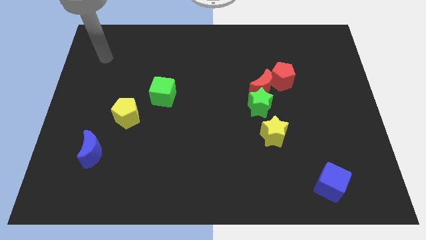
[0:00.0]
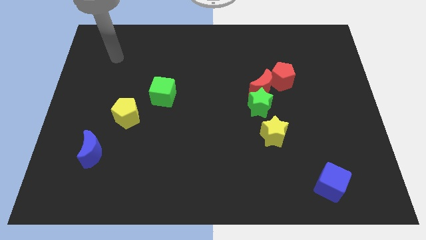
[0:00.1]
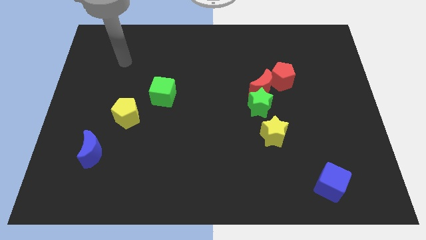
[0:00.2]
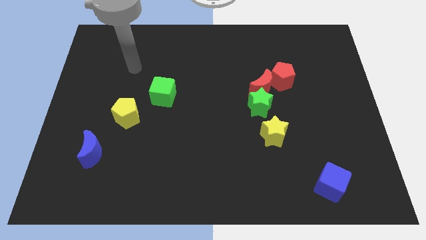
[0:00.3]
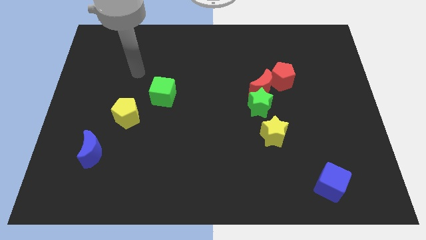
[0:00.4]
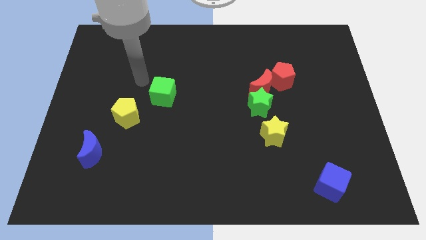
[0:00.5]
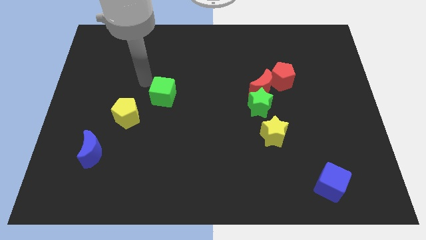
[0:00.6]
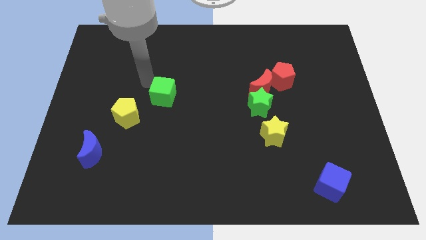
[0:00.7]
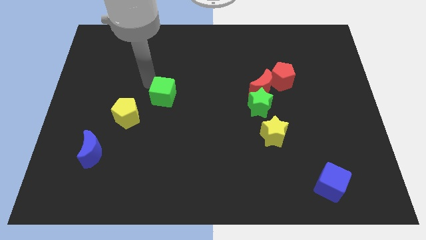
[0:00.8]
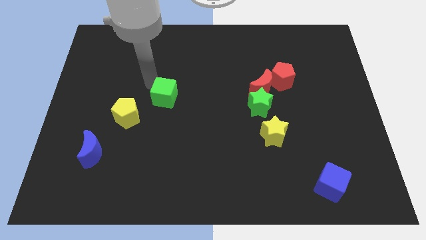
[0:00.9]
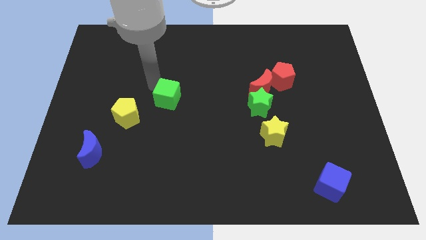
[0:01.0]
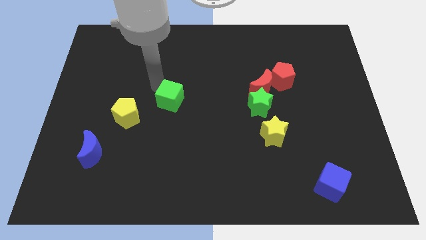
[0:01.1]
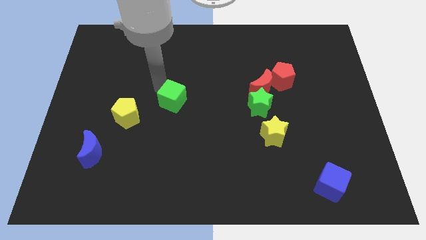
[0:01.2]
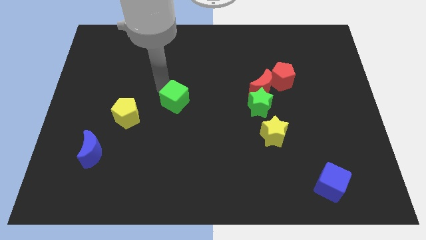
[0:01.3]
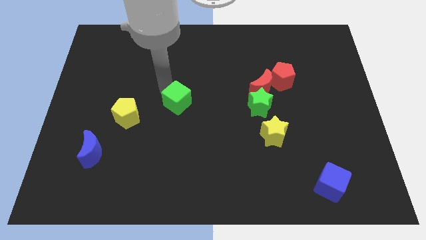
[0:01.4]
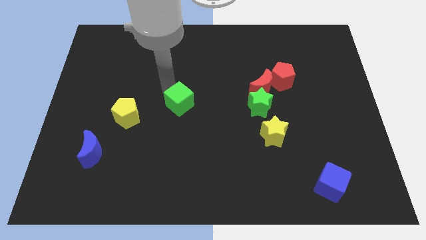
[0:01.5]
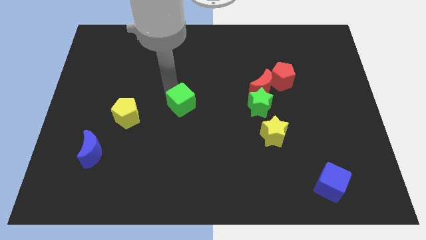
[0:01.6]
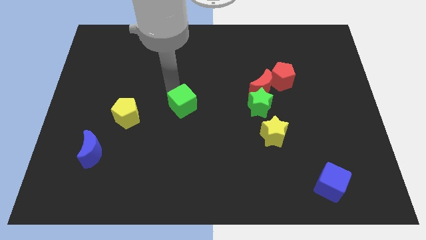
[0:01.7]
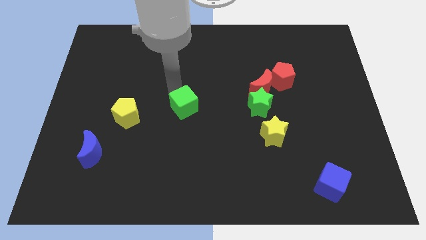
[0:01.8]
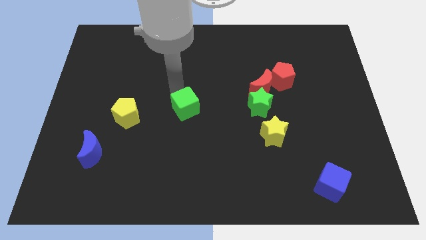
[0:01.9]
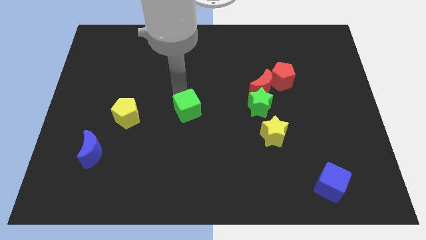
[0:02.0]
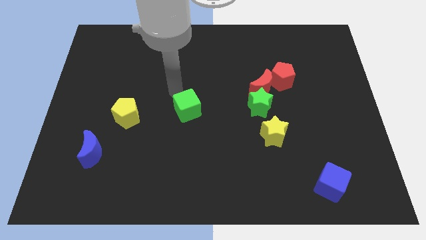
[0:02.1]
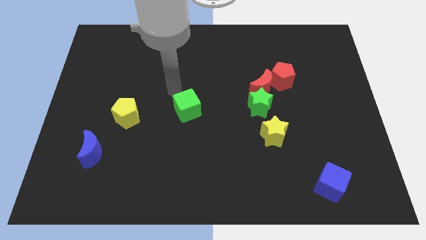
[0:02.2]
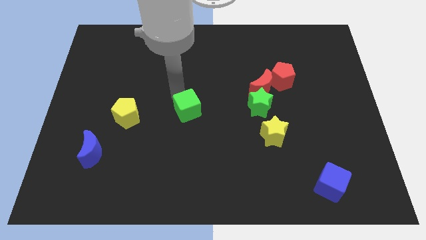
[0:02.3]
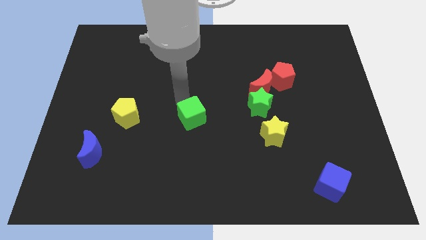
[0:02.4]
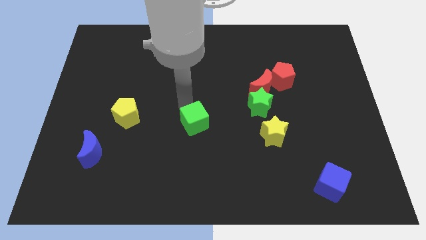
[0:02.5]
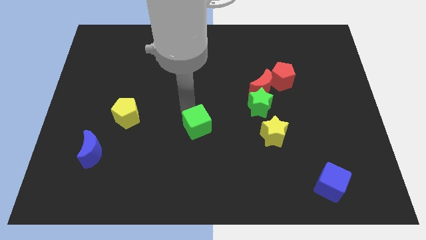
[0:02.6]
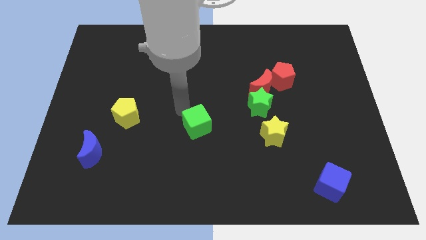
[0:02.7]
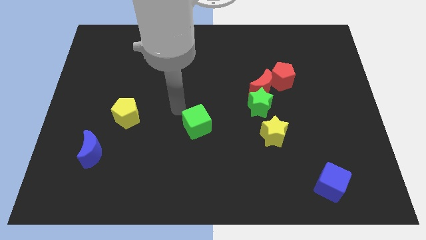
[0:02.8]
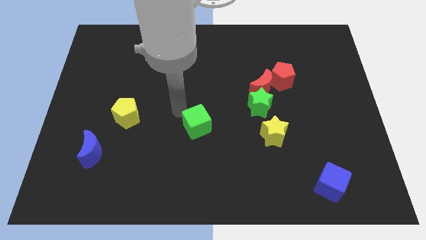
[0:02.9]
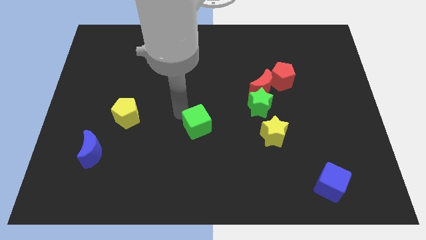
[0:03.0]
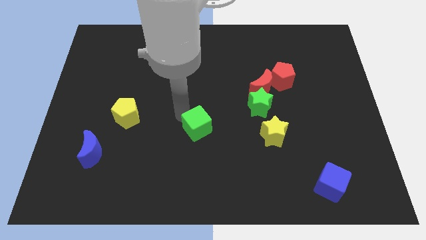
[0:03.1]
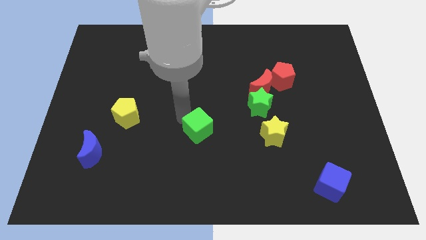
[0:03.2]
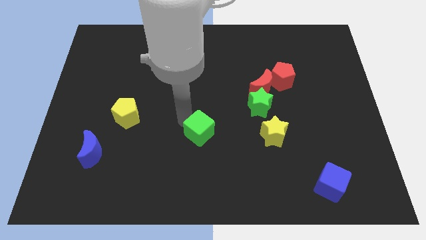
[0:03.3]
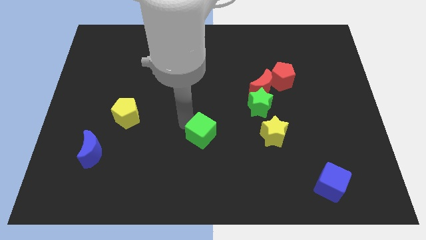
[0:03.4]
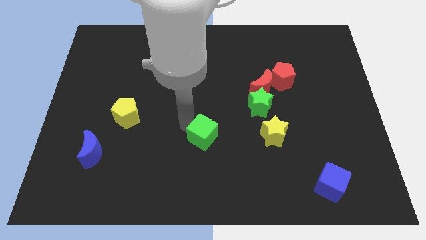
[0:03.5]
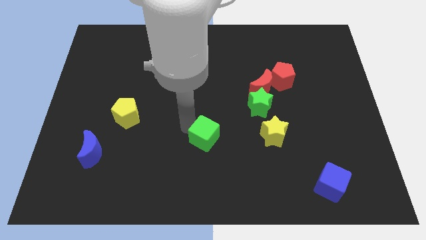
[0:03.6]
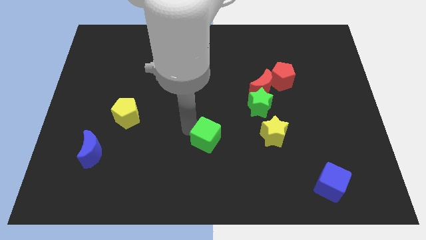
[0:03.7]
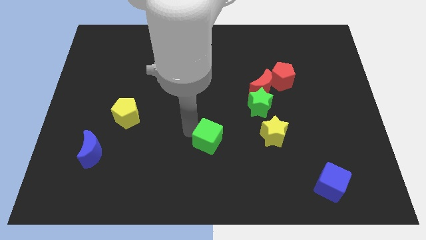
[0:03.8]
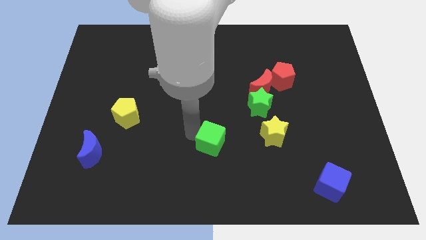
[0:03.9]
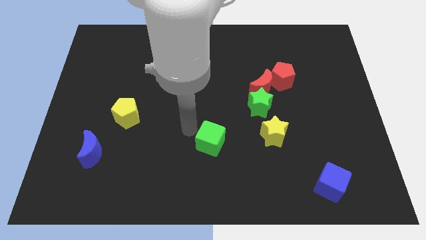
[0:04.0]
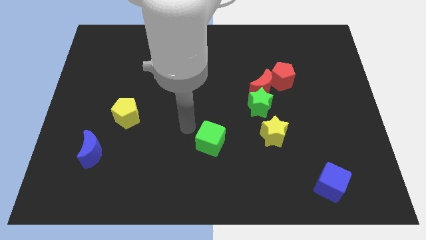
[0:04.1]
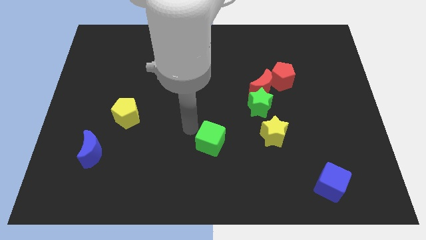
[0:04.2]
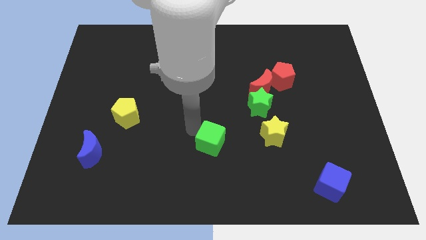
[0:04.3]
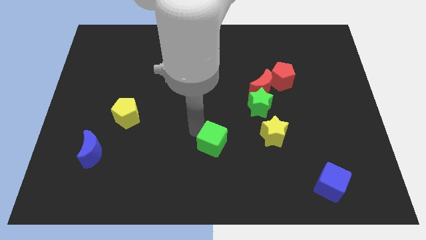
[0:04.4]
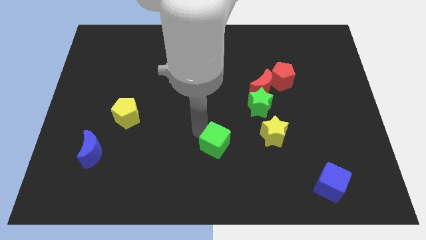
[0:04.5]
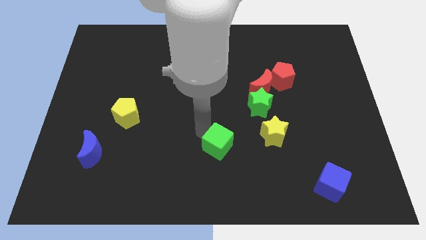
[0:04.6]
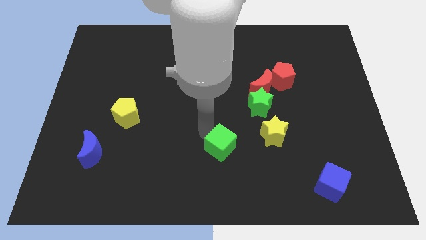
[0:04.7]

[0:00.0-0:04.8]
push the green cube downwards and right

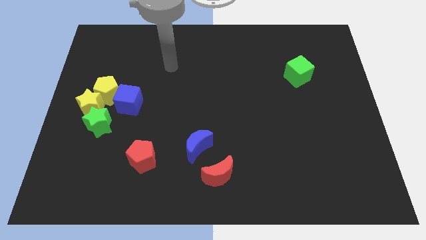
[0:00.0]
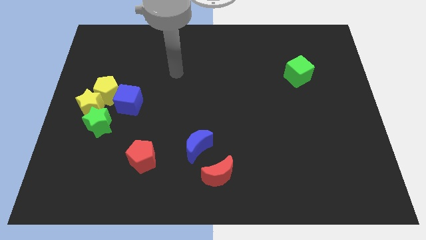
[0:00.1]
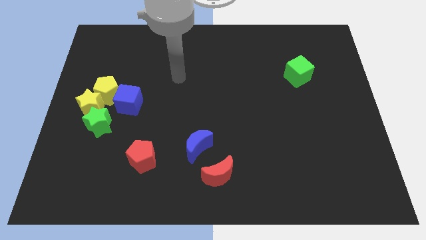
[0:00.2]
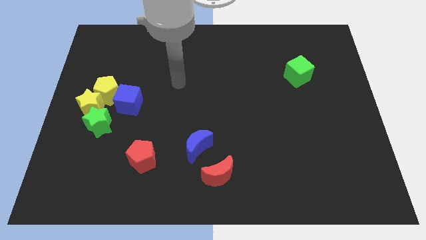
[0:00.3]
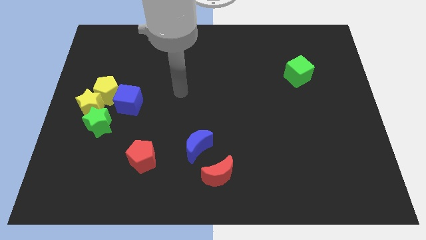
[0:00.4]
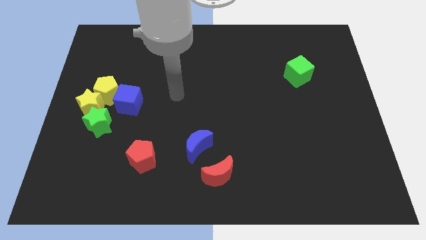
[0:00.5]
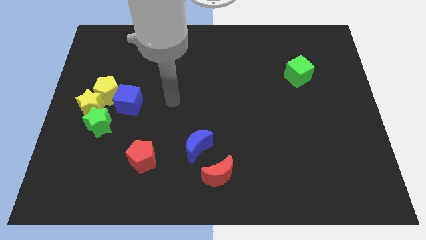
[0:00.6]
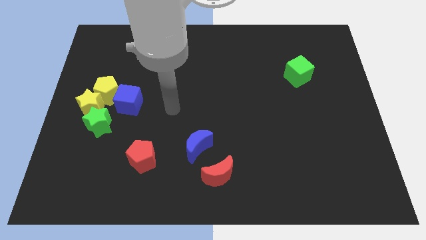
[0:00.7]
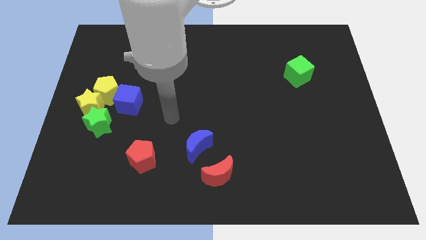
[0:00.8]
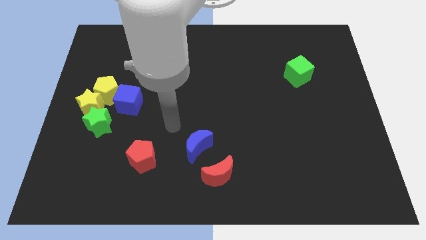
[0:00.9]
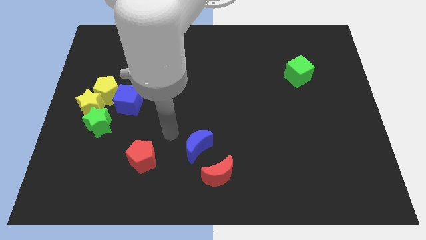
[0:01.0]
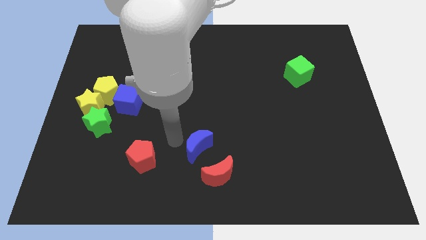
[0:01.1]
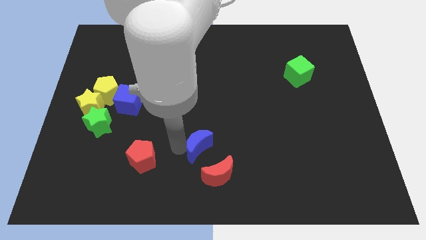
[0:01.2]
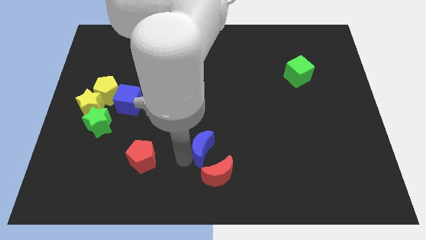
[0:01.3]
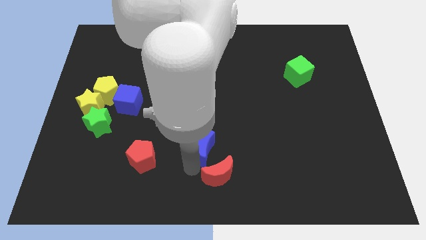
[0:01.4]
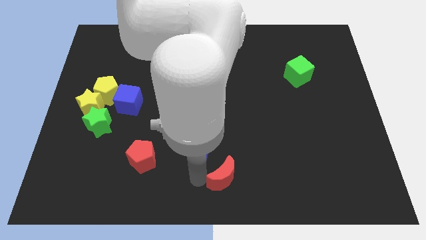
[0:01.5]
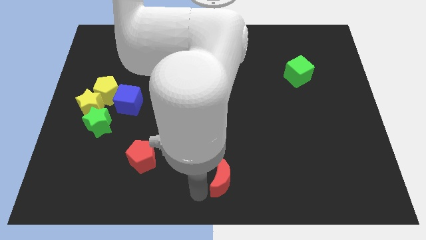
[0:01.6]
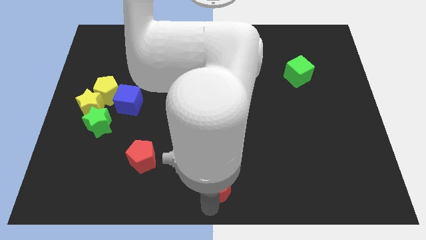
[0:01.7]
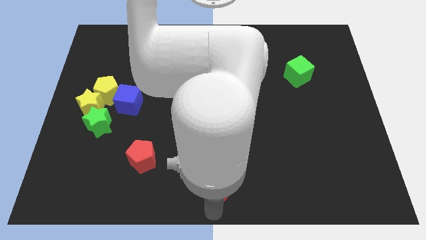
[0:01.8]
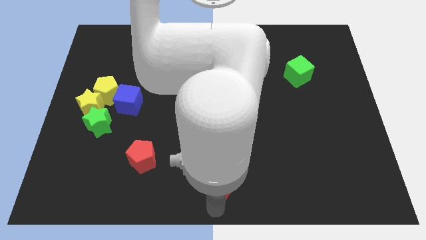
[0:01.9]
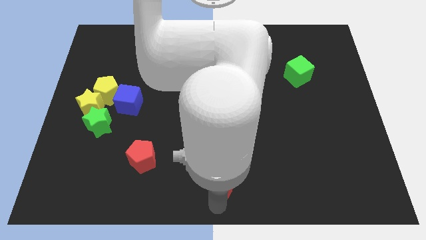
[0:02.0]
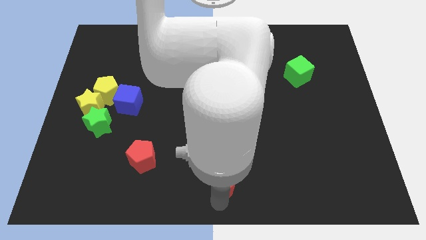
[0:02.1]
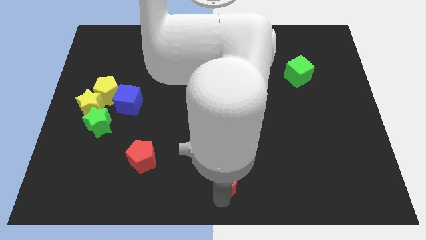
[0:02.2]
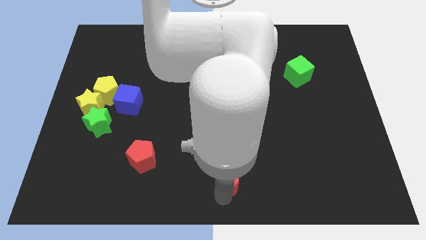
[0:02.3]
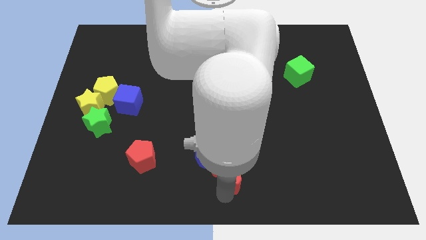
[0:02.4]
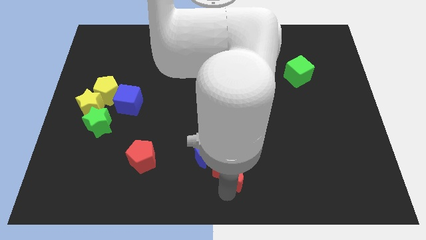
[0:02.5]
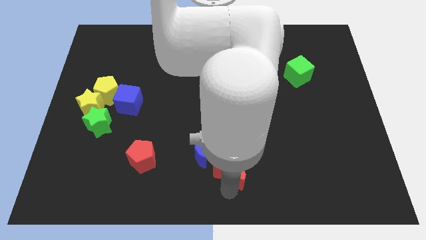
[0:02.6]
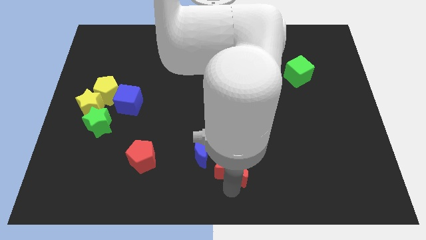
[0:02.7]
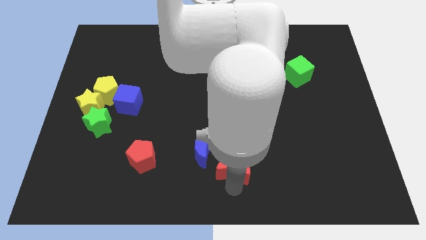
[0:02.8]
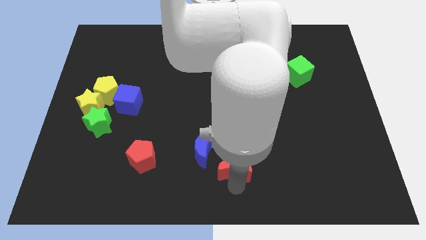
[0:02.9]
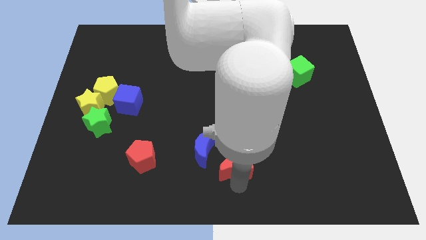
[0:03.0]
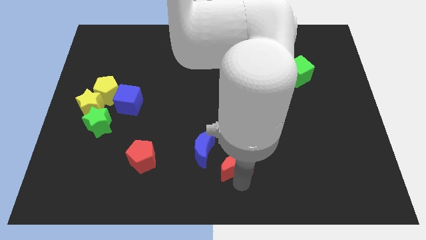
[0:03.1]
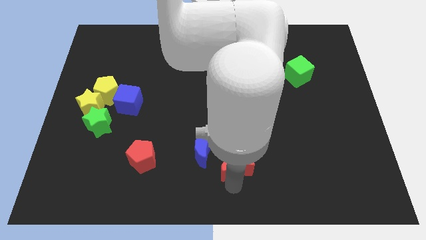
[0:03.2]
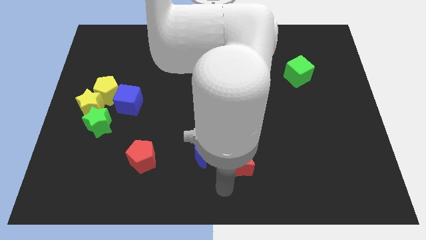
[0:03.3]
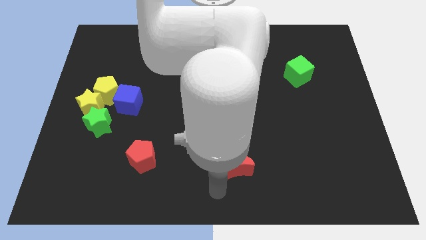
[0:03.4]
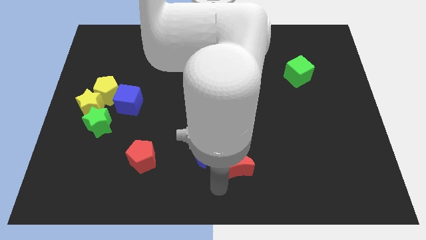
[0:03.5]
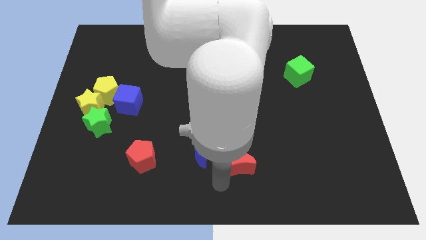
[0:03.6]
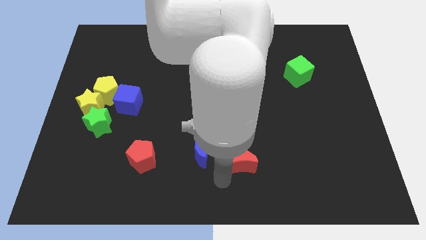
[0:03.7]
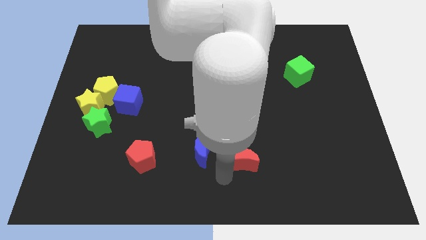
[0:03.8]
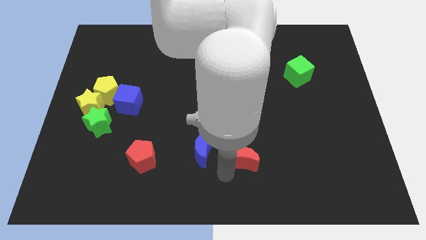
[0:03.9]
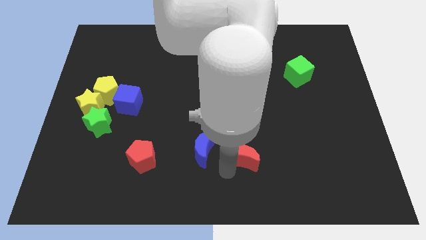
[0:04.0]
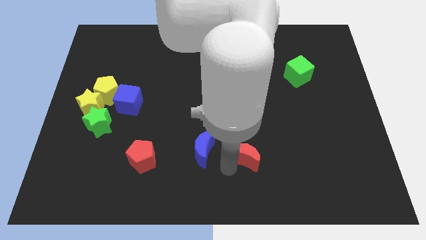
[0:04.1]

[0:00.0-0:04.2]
slide the red moon a little diagonally up and right
